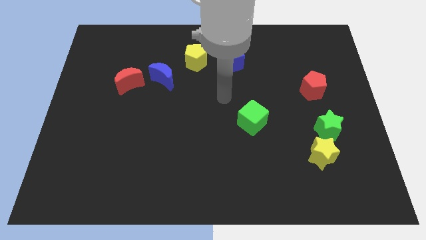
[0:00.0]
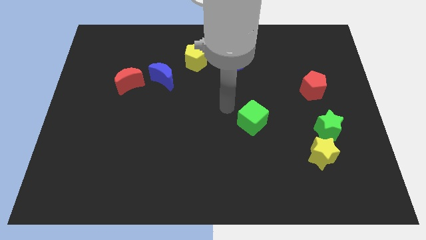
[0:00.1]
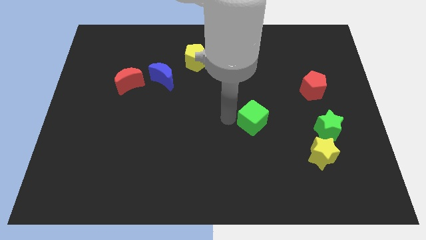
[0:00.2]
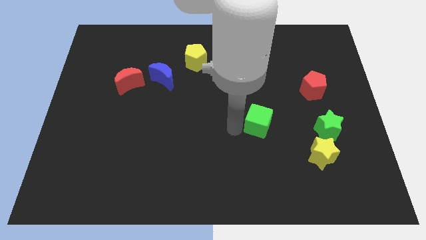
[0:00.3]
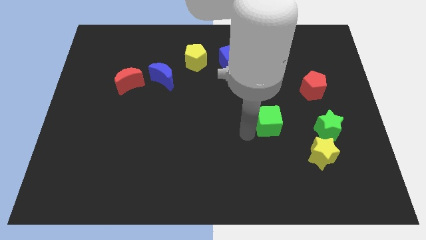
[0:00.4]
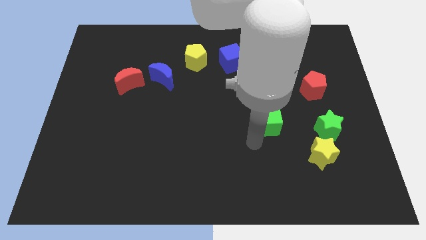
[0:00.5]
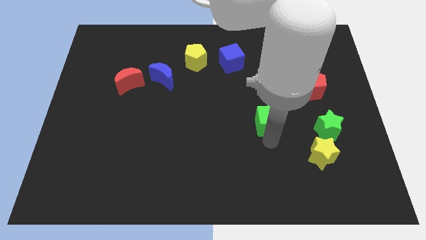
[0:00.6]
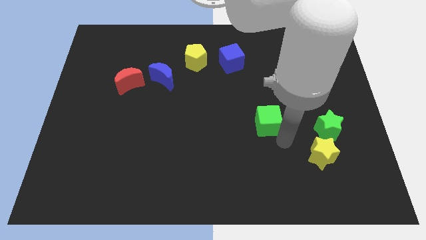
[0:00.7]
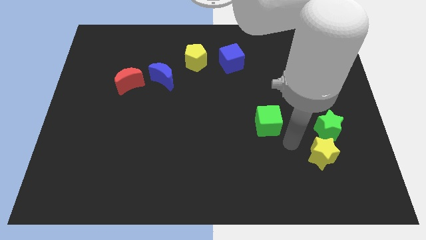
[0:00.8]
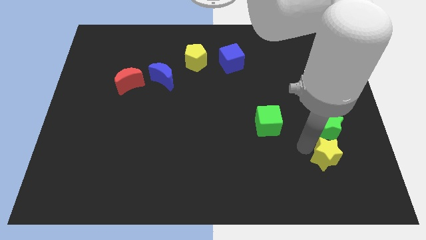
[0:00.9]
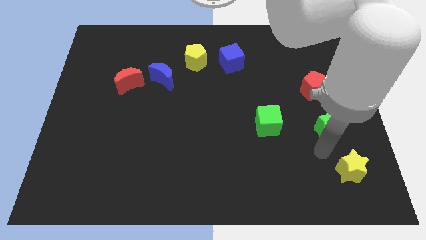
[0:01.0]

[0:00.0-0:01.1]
move the green star away from the yellow star

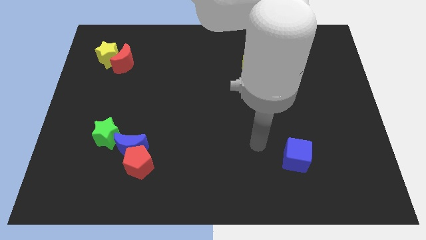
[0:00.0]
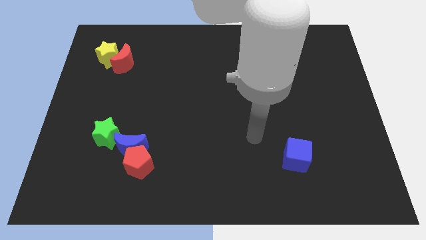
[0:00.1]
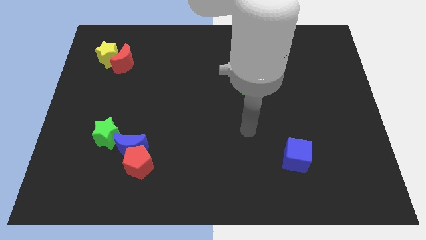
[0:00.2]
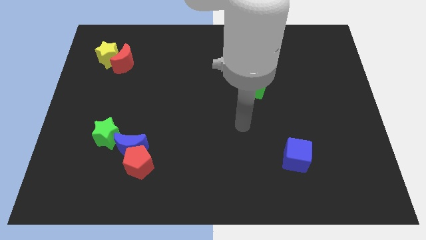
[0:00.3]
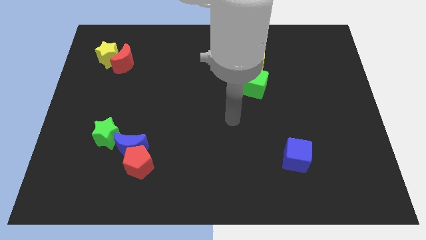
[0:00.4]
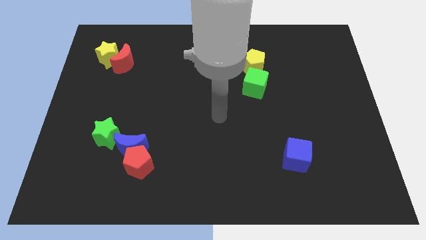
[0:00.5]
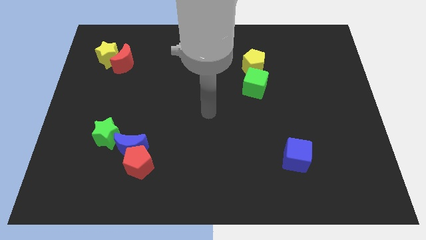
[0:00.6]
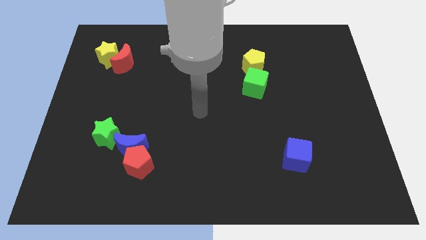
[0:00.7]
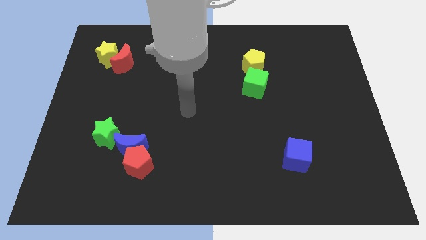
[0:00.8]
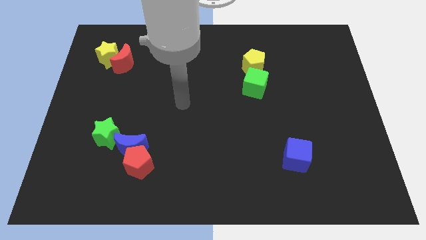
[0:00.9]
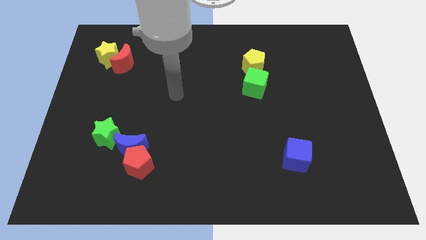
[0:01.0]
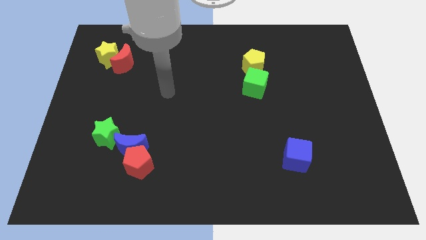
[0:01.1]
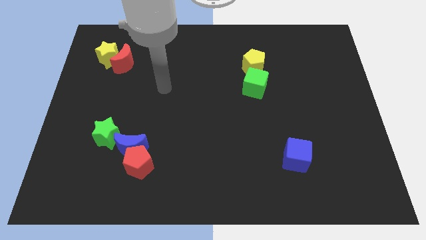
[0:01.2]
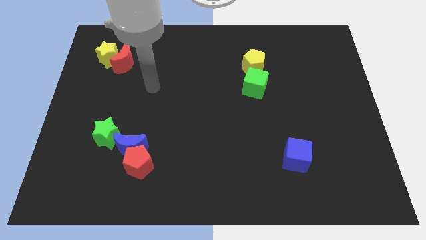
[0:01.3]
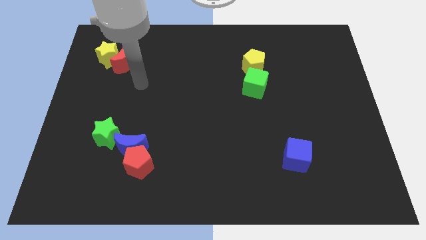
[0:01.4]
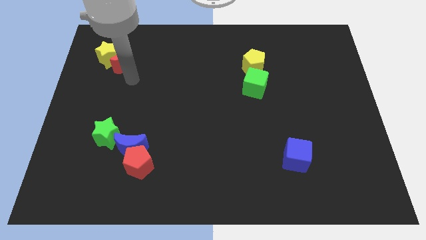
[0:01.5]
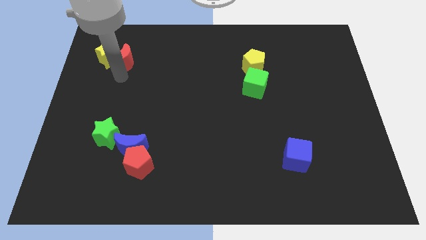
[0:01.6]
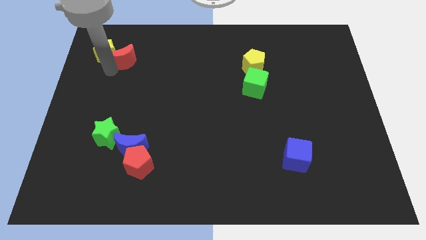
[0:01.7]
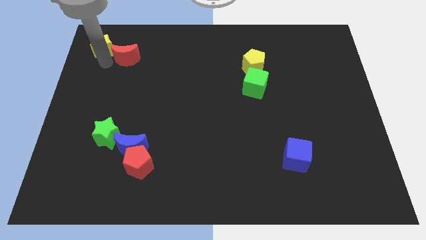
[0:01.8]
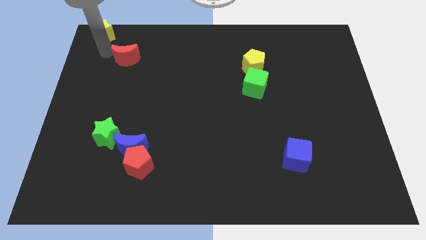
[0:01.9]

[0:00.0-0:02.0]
pull the red moon apart from the yellow star

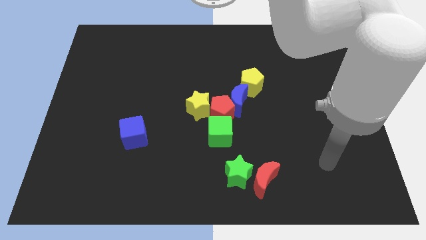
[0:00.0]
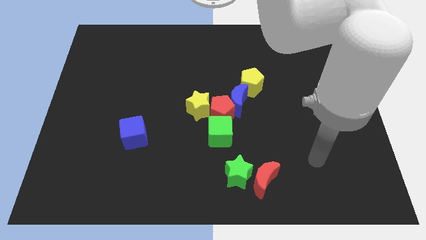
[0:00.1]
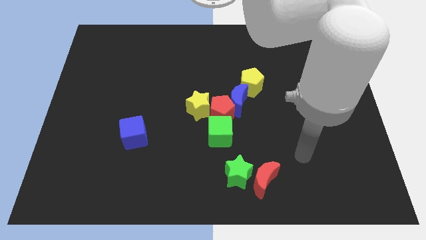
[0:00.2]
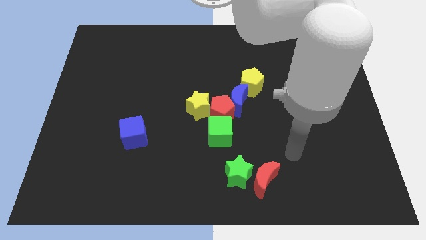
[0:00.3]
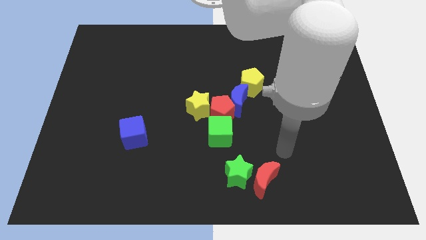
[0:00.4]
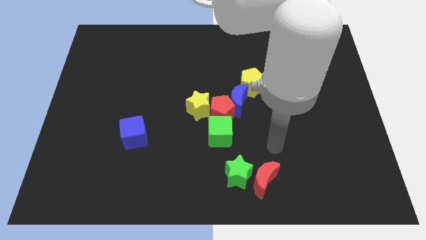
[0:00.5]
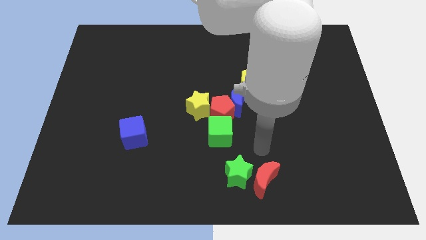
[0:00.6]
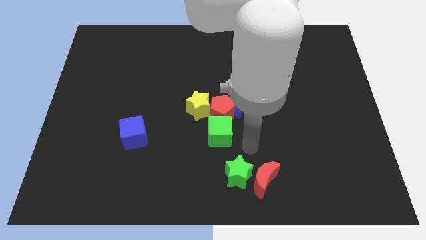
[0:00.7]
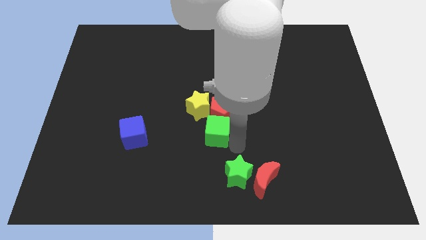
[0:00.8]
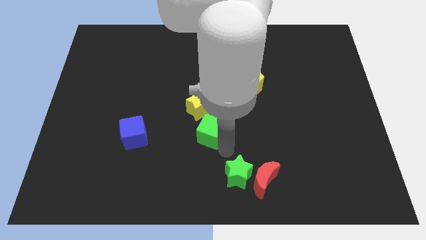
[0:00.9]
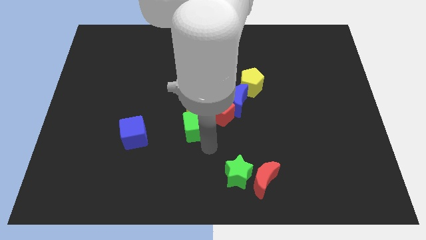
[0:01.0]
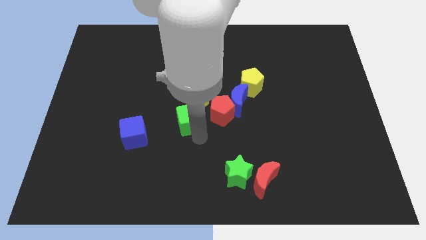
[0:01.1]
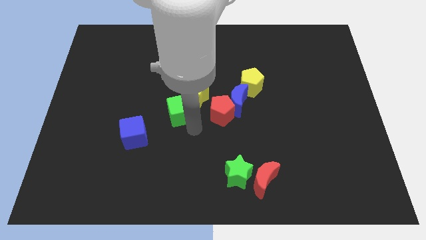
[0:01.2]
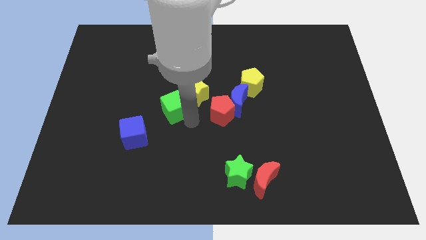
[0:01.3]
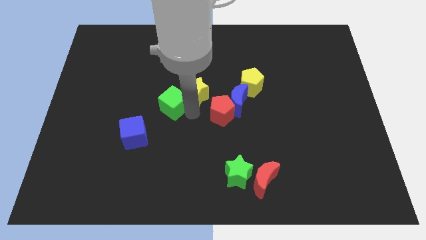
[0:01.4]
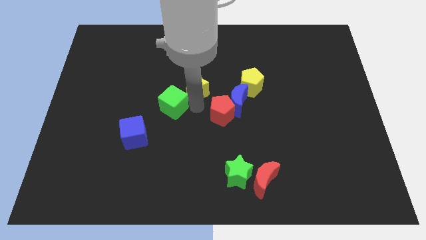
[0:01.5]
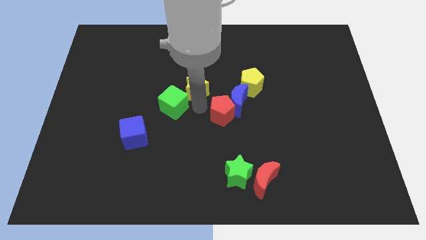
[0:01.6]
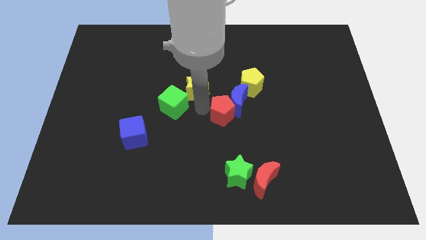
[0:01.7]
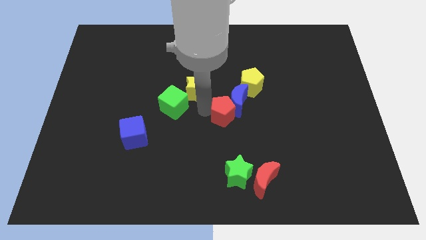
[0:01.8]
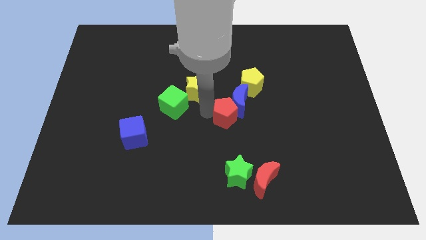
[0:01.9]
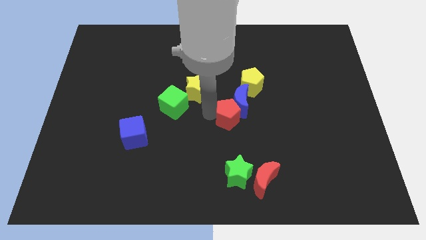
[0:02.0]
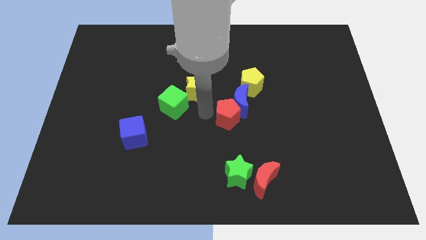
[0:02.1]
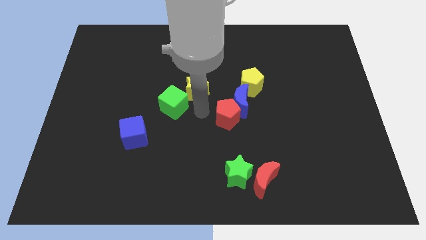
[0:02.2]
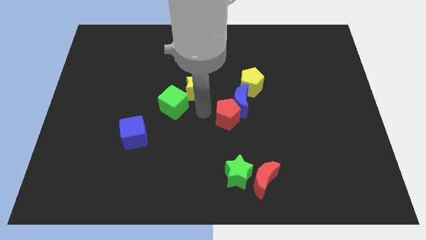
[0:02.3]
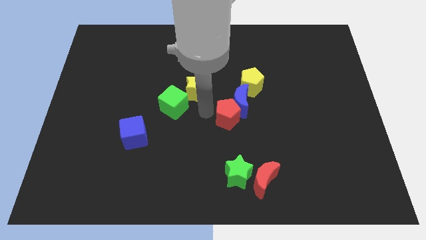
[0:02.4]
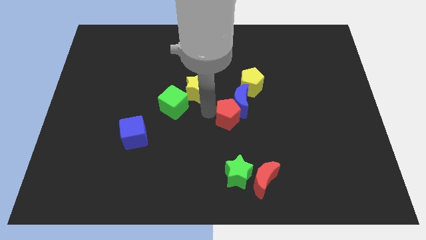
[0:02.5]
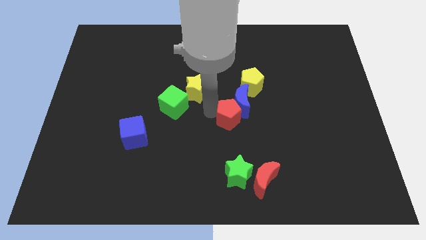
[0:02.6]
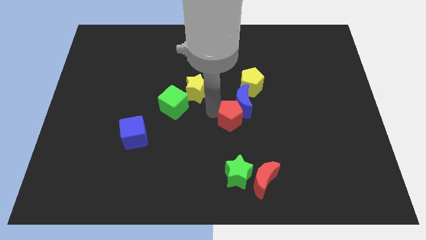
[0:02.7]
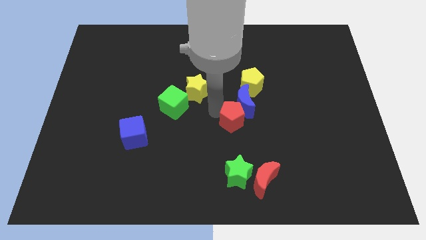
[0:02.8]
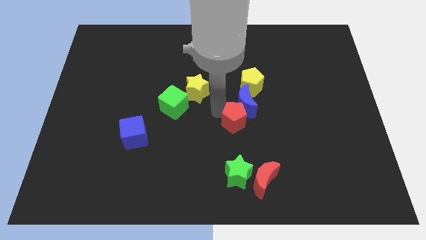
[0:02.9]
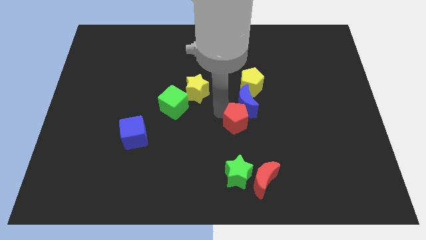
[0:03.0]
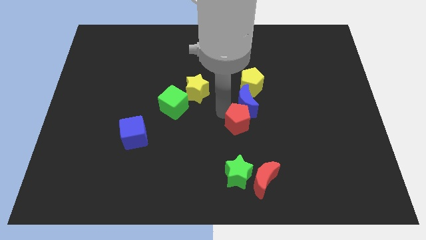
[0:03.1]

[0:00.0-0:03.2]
pull the red pentagon apart from the clump

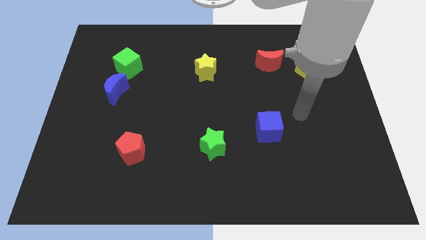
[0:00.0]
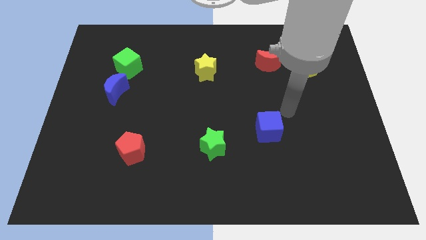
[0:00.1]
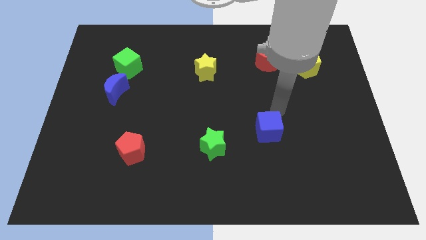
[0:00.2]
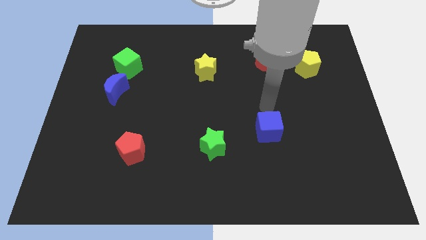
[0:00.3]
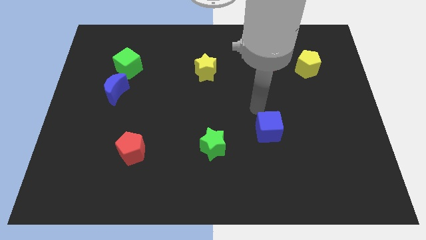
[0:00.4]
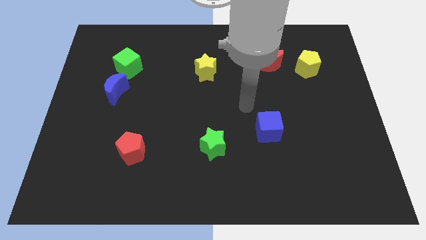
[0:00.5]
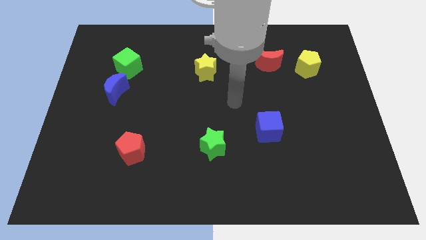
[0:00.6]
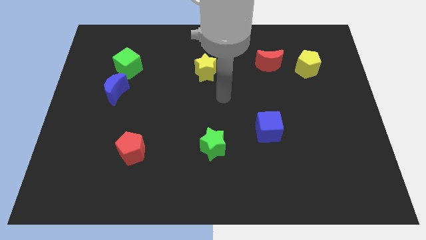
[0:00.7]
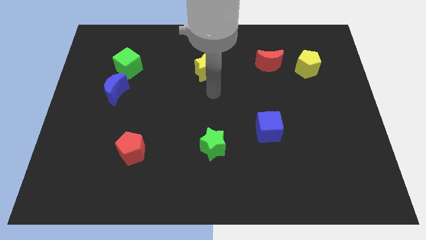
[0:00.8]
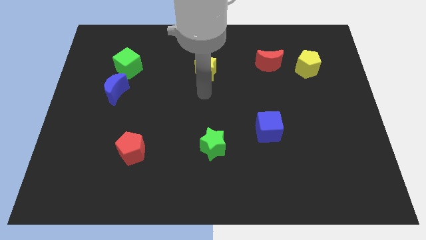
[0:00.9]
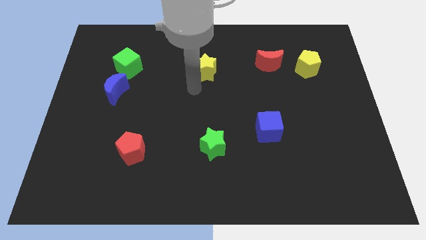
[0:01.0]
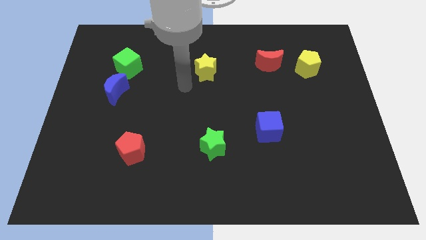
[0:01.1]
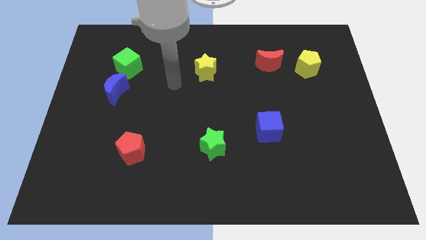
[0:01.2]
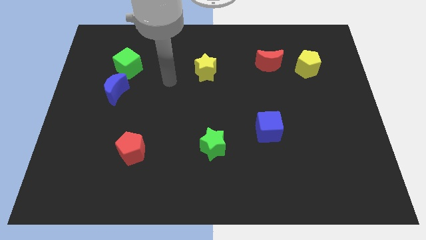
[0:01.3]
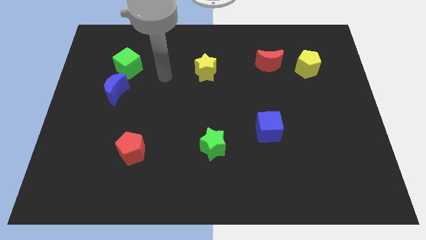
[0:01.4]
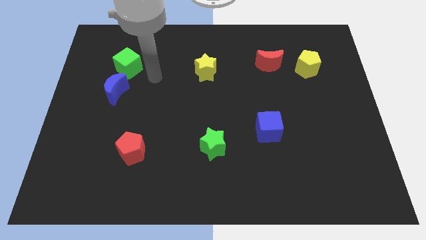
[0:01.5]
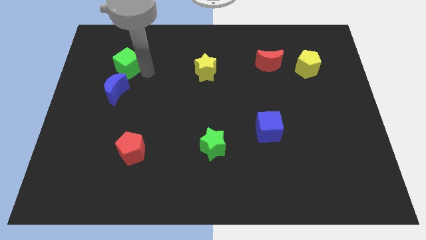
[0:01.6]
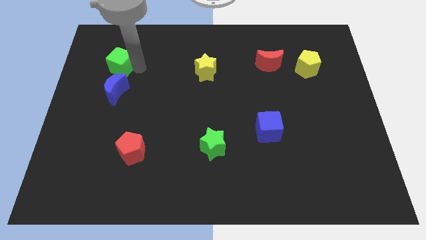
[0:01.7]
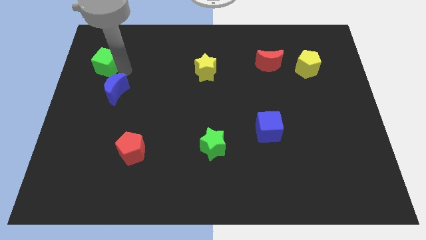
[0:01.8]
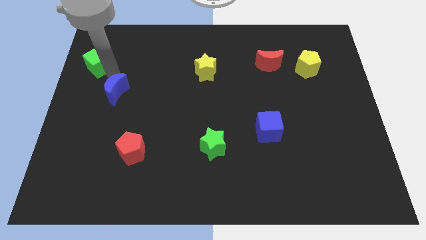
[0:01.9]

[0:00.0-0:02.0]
separate the blue moon from the green cube

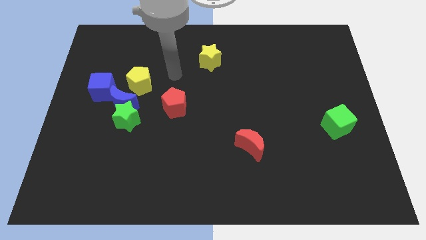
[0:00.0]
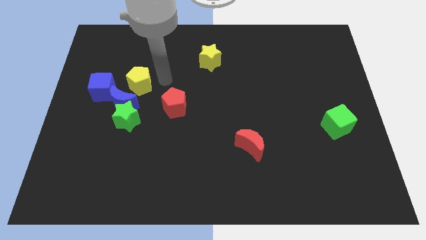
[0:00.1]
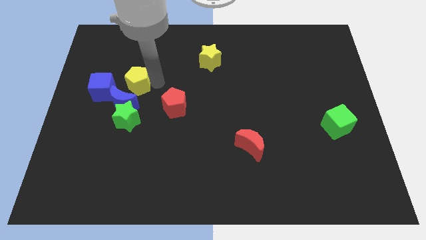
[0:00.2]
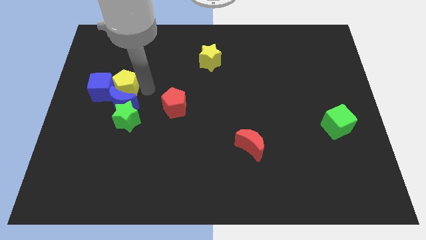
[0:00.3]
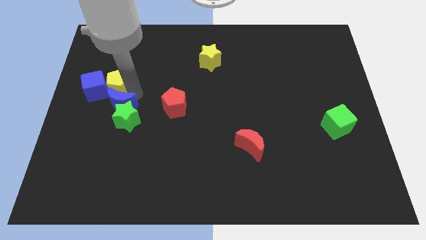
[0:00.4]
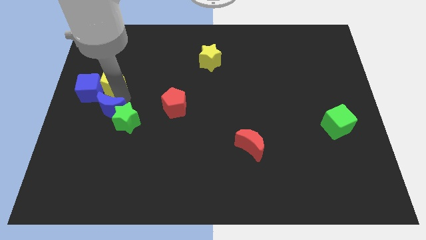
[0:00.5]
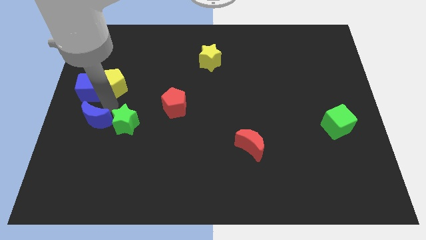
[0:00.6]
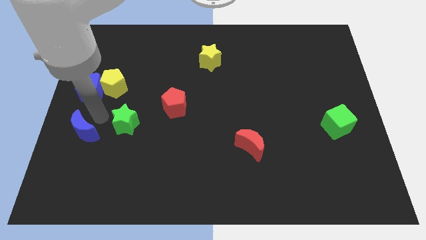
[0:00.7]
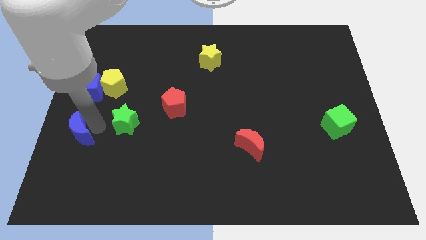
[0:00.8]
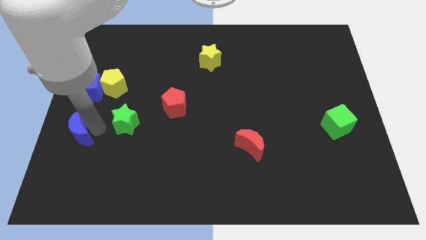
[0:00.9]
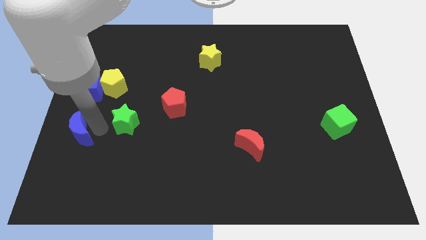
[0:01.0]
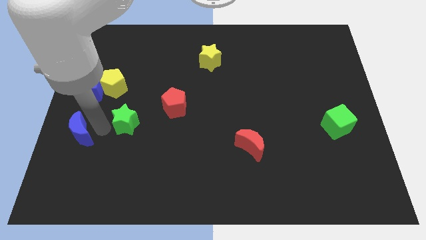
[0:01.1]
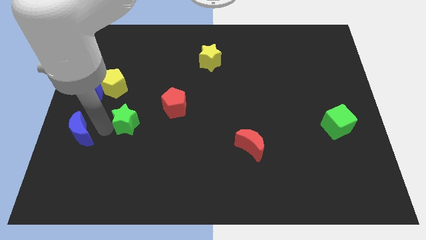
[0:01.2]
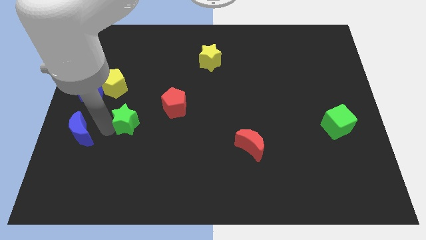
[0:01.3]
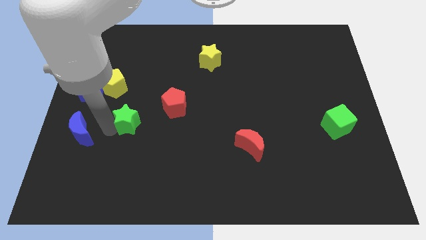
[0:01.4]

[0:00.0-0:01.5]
separate the green star from the blue moon
